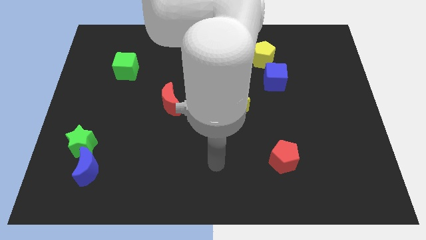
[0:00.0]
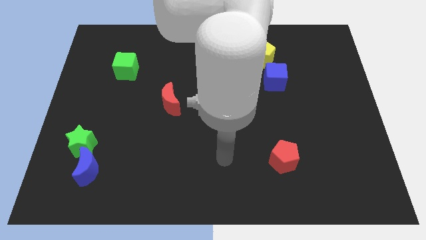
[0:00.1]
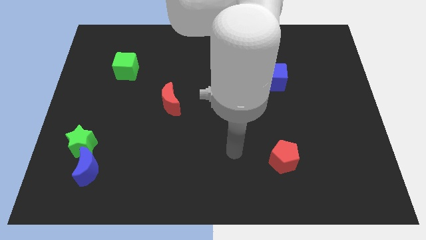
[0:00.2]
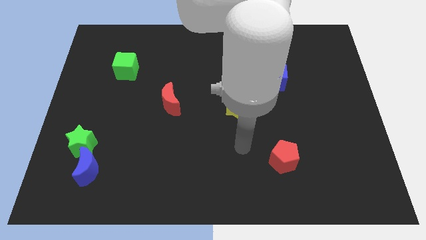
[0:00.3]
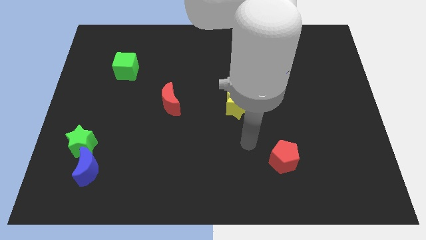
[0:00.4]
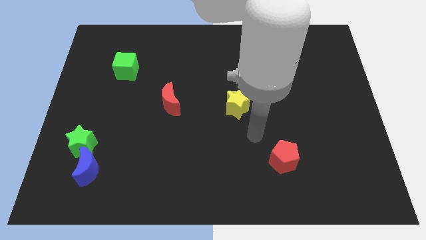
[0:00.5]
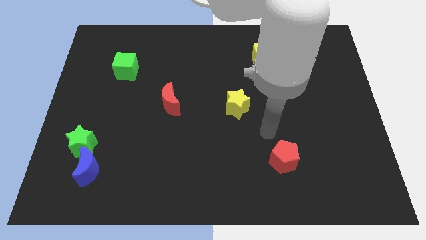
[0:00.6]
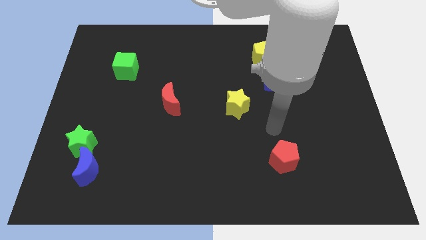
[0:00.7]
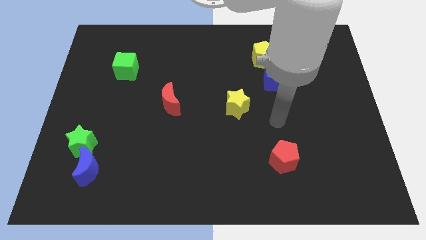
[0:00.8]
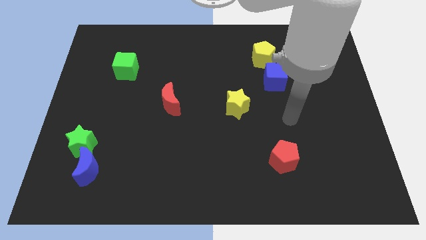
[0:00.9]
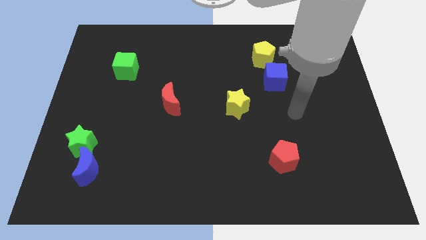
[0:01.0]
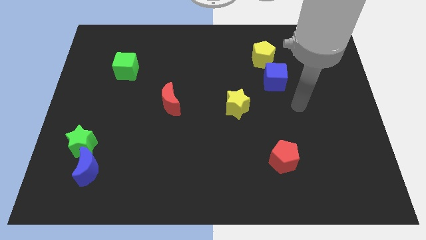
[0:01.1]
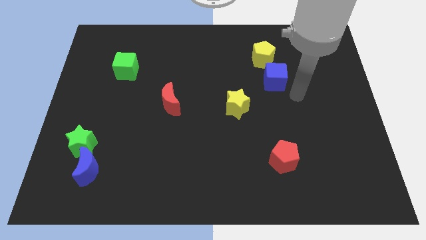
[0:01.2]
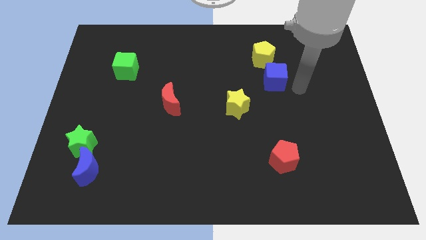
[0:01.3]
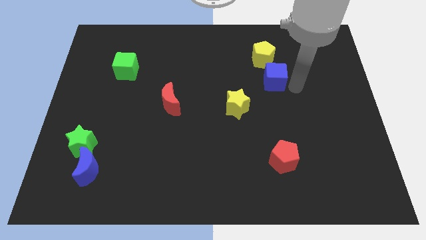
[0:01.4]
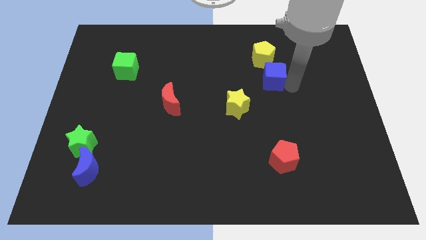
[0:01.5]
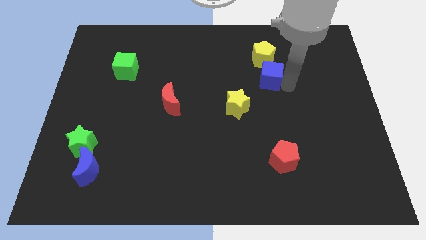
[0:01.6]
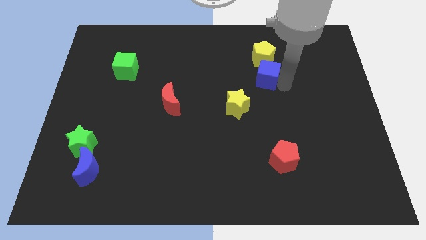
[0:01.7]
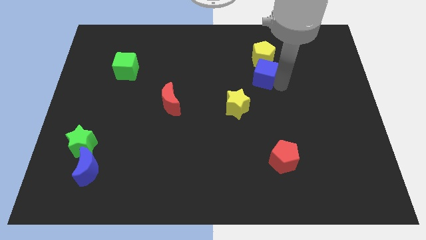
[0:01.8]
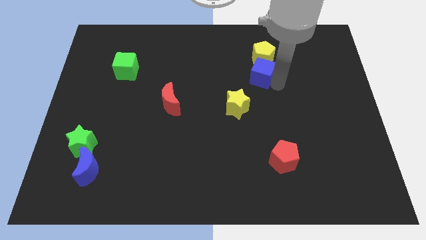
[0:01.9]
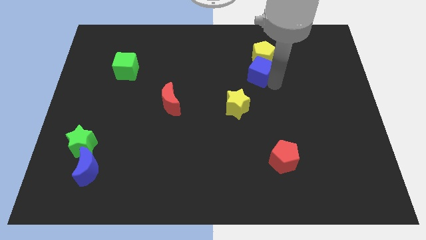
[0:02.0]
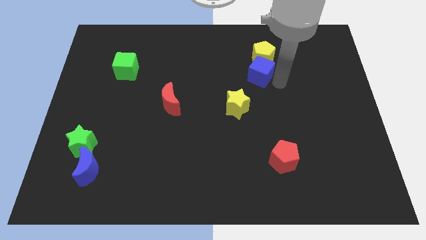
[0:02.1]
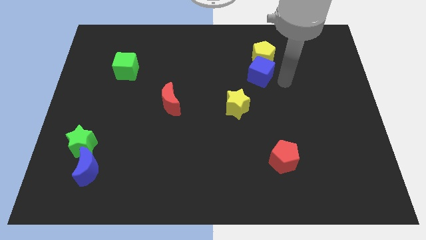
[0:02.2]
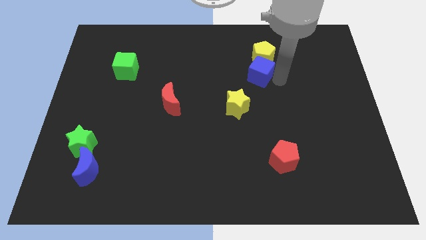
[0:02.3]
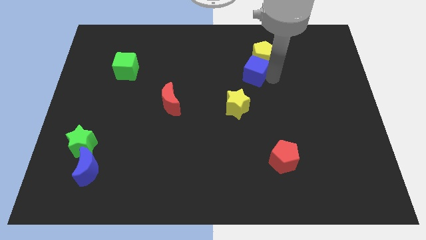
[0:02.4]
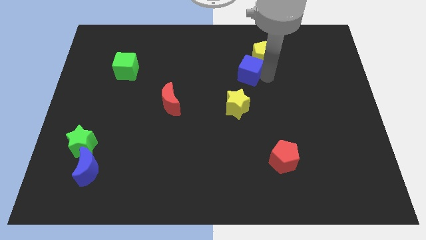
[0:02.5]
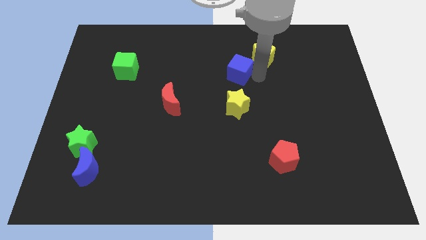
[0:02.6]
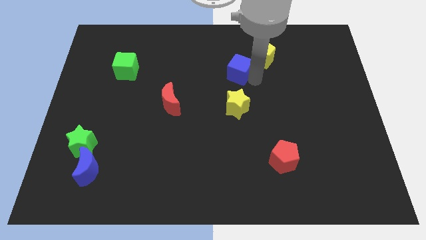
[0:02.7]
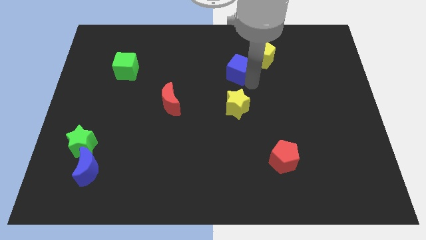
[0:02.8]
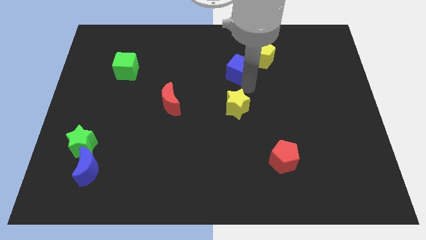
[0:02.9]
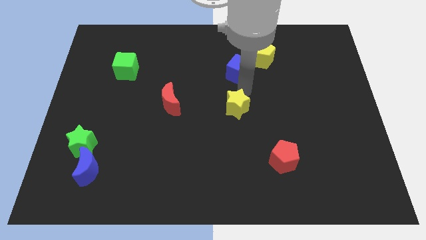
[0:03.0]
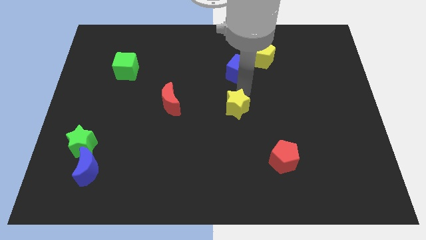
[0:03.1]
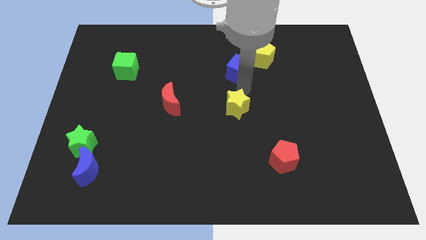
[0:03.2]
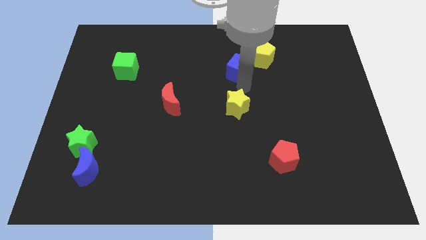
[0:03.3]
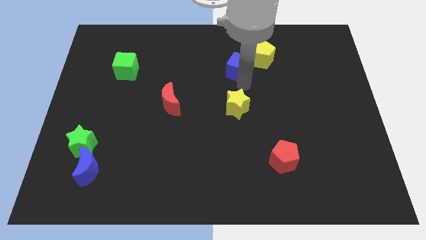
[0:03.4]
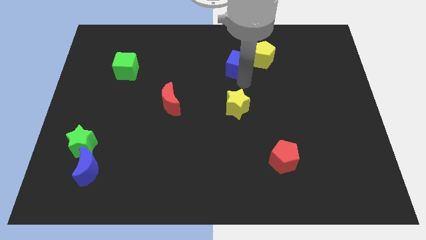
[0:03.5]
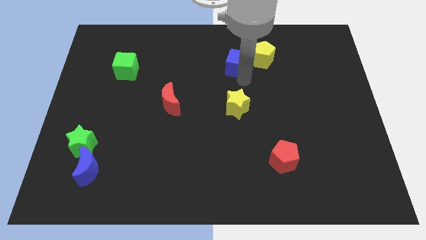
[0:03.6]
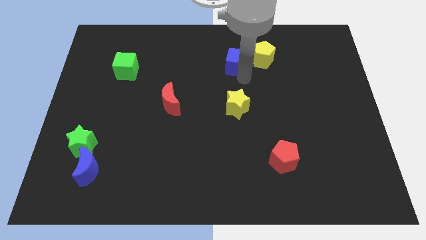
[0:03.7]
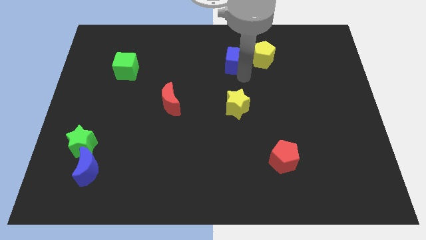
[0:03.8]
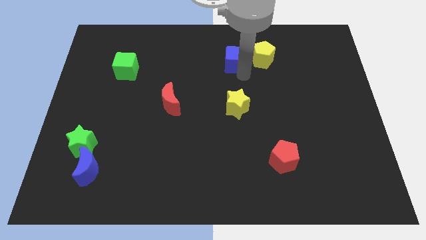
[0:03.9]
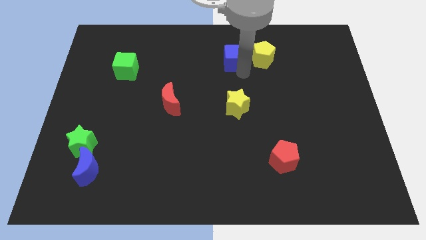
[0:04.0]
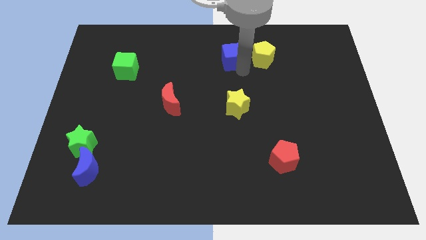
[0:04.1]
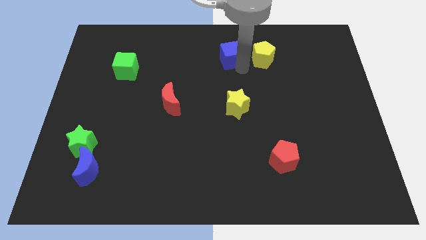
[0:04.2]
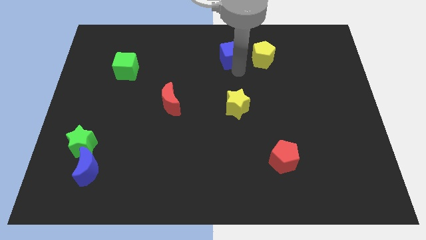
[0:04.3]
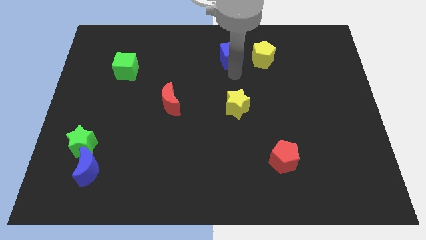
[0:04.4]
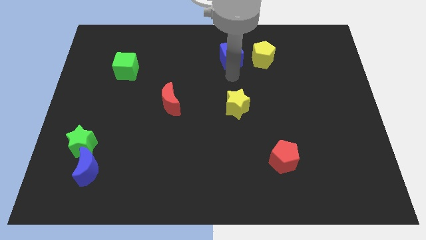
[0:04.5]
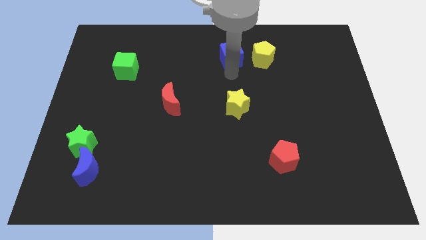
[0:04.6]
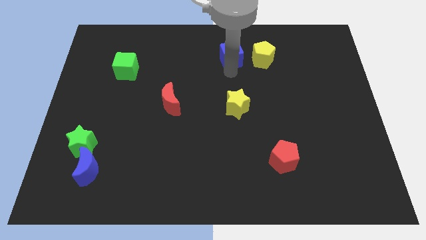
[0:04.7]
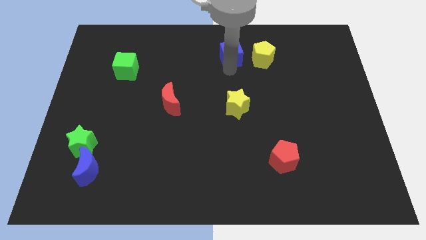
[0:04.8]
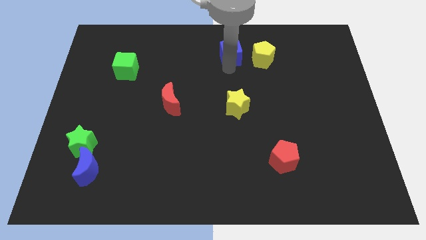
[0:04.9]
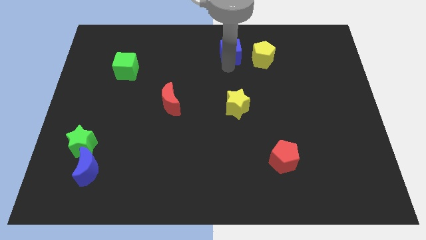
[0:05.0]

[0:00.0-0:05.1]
slide the blue cube to the top

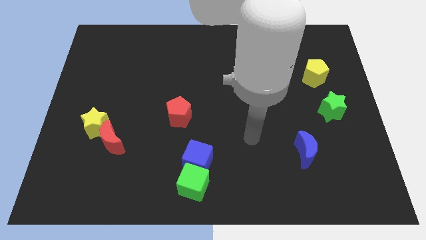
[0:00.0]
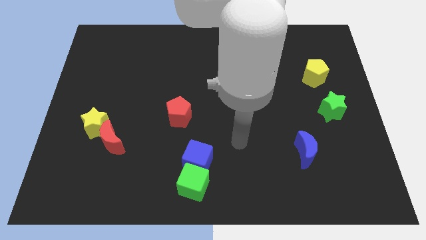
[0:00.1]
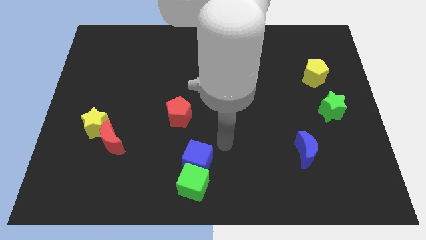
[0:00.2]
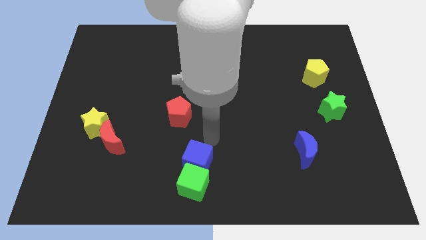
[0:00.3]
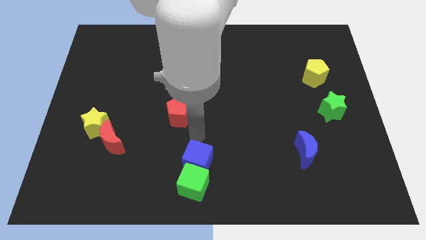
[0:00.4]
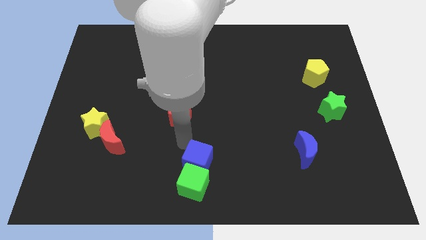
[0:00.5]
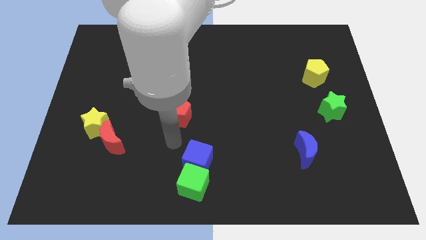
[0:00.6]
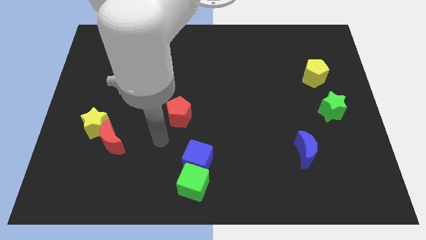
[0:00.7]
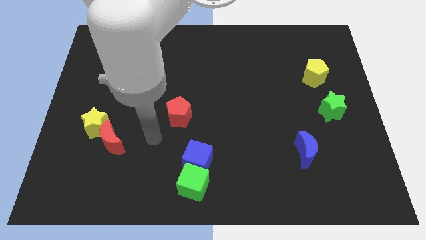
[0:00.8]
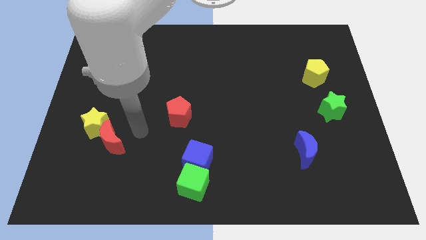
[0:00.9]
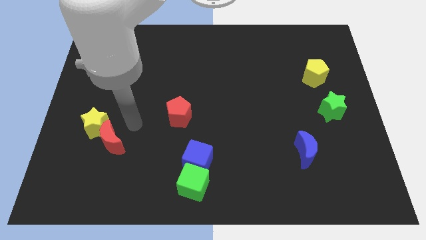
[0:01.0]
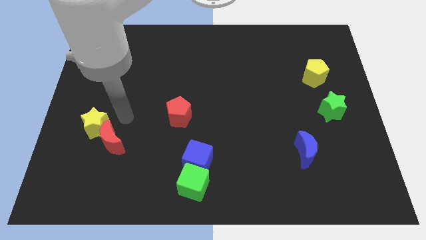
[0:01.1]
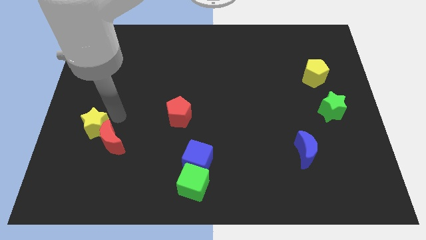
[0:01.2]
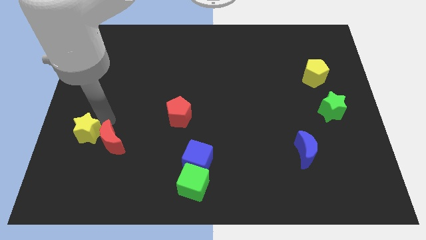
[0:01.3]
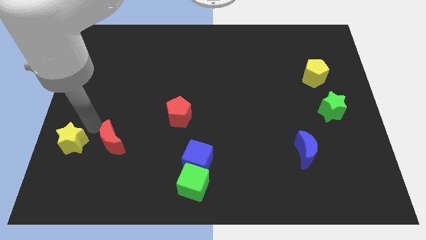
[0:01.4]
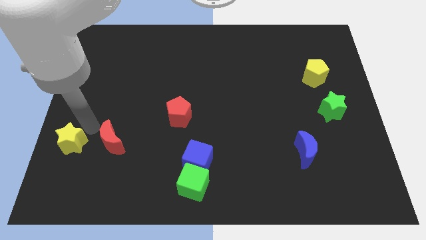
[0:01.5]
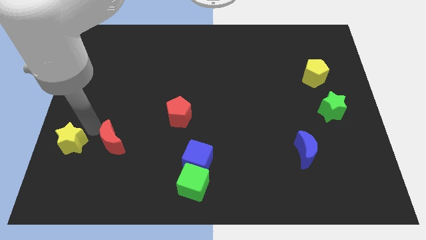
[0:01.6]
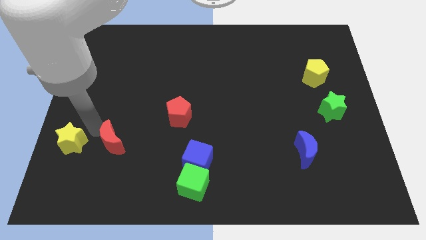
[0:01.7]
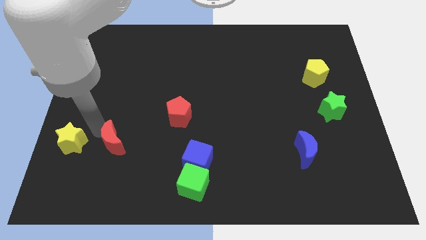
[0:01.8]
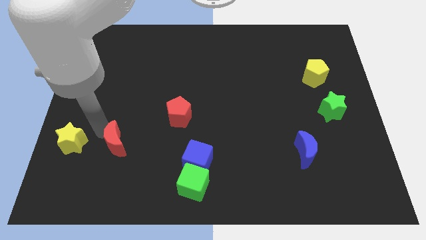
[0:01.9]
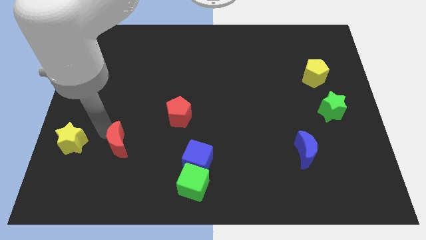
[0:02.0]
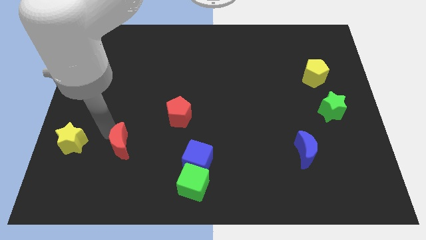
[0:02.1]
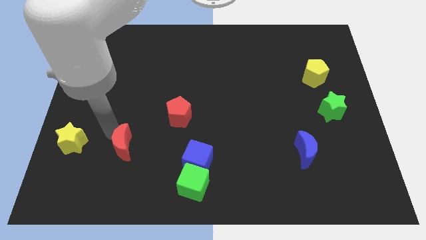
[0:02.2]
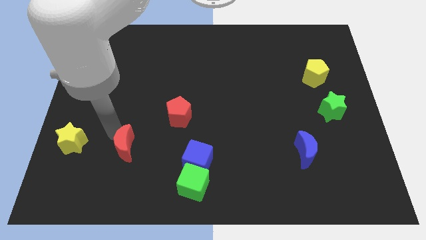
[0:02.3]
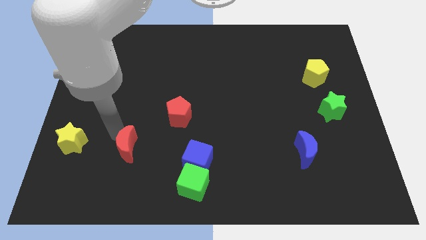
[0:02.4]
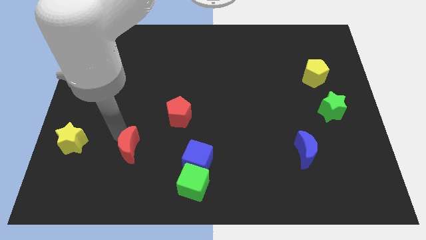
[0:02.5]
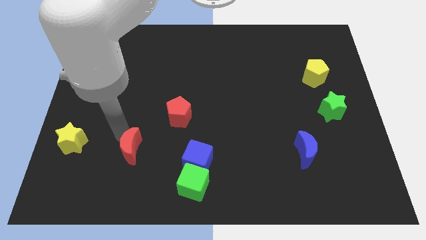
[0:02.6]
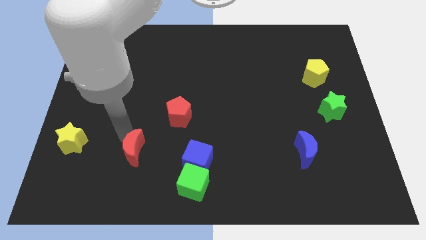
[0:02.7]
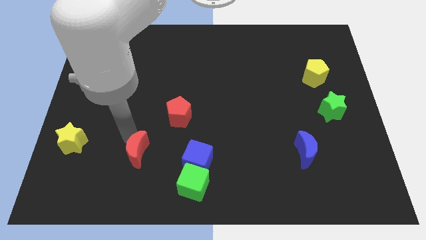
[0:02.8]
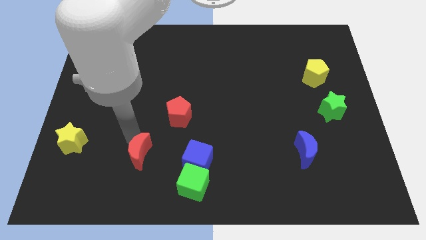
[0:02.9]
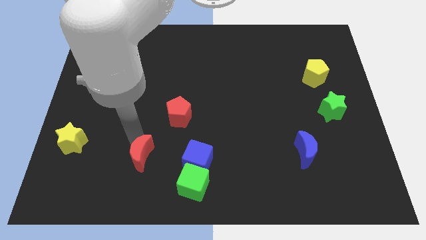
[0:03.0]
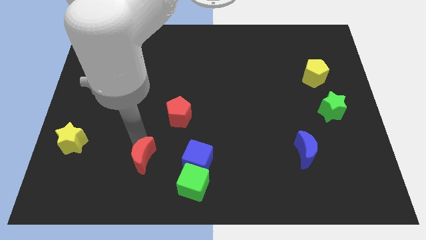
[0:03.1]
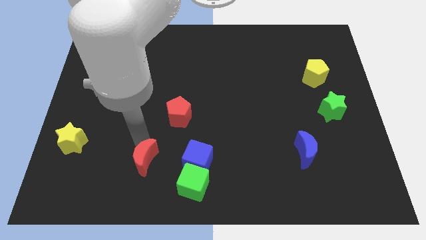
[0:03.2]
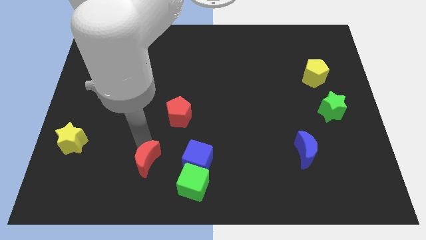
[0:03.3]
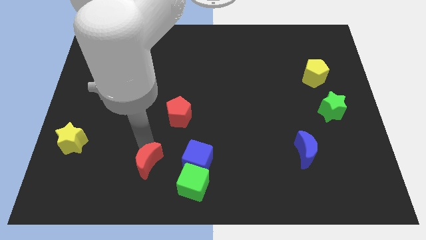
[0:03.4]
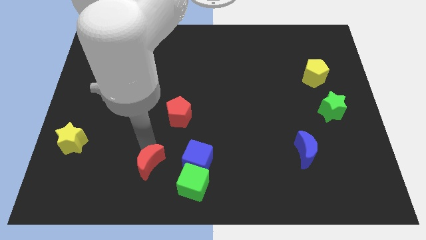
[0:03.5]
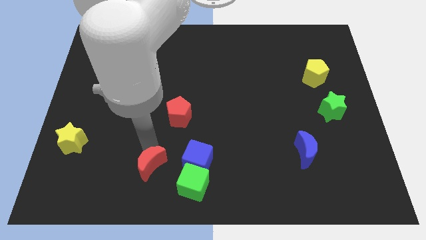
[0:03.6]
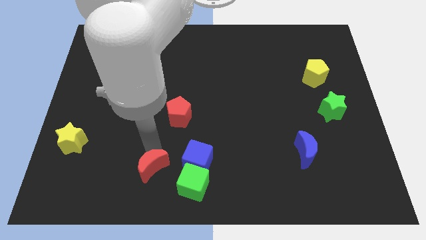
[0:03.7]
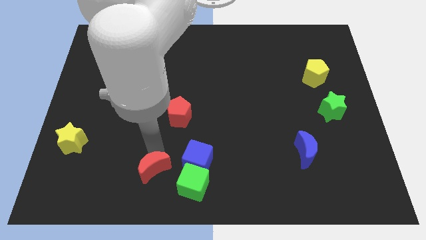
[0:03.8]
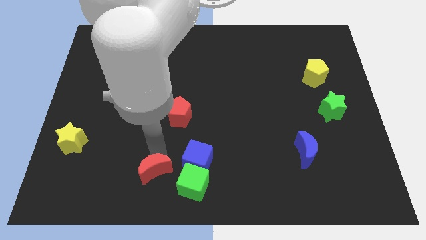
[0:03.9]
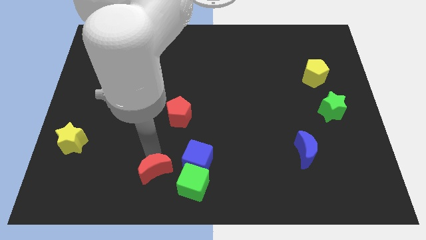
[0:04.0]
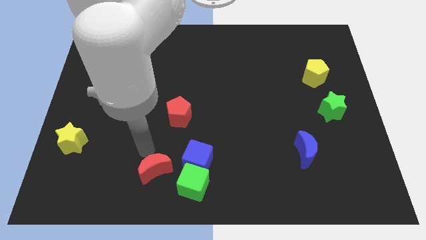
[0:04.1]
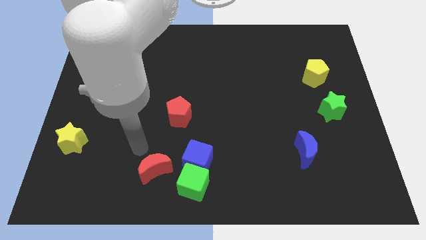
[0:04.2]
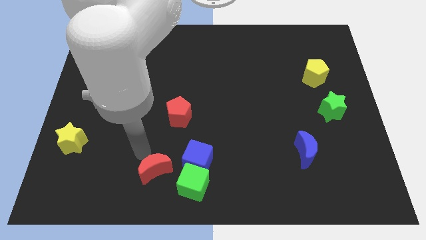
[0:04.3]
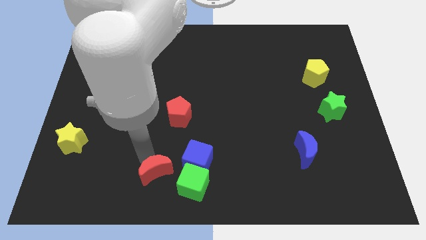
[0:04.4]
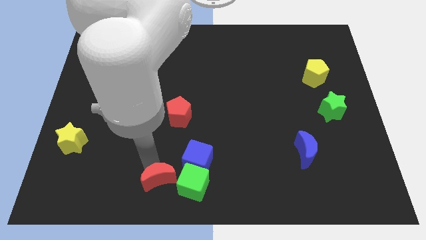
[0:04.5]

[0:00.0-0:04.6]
push the red moon to the bottom side
